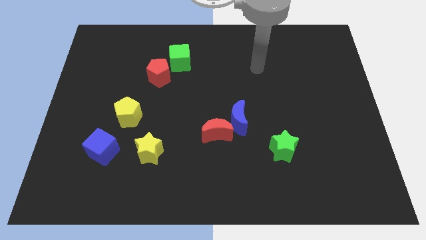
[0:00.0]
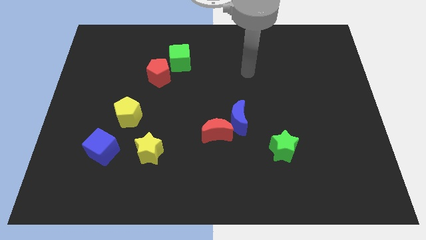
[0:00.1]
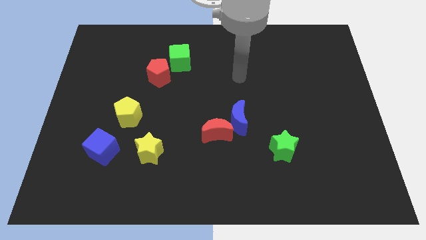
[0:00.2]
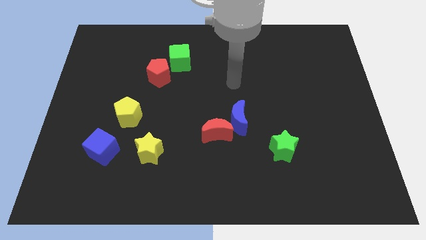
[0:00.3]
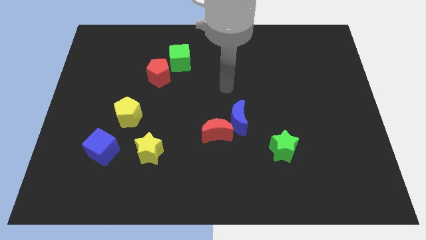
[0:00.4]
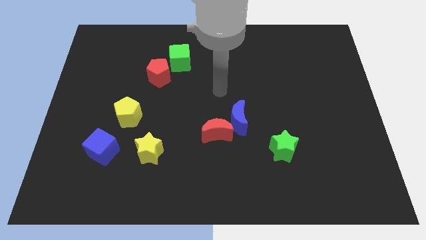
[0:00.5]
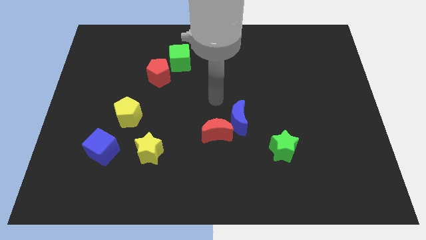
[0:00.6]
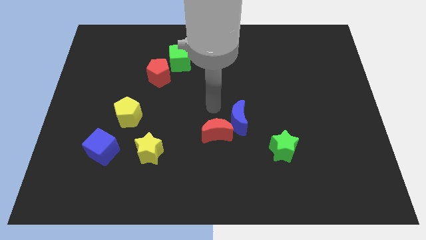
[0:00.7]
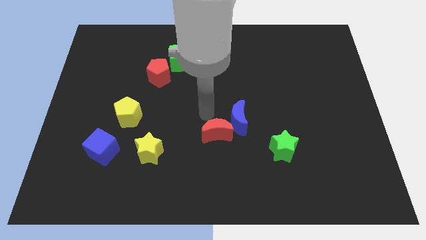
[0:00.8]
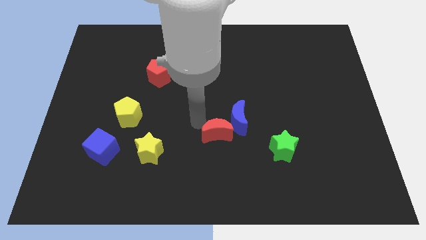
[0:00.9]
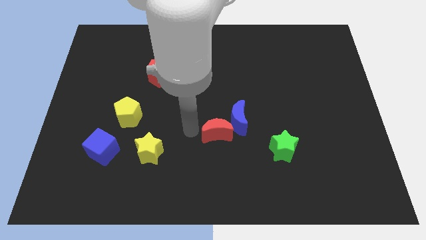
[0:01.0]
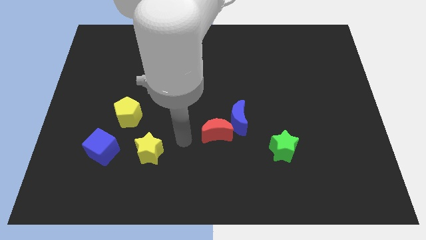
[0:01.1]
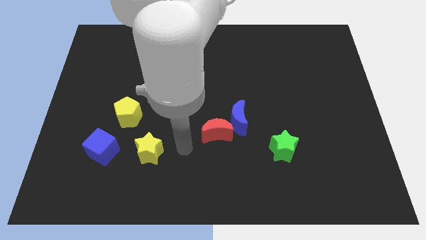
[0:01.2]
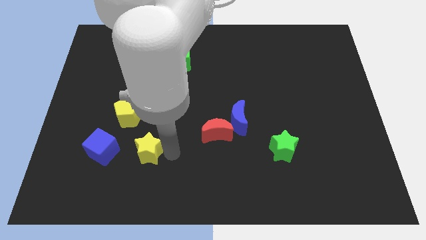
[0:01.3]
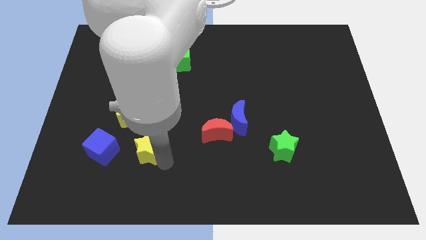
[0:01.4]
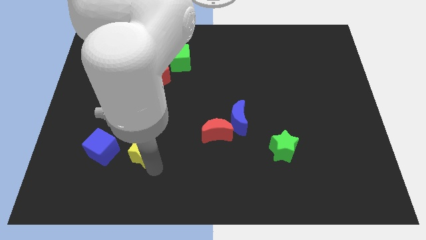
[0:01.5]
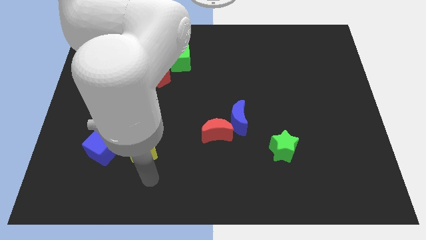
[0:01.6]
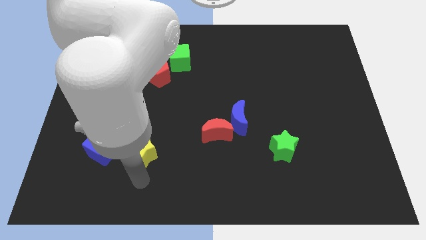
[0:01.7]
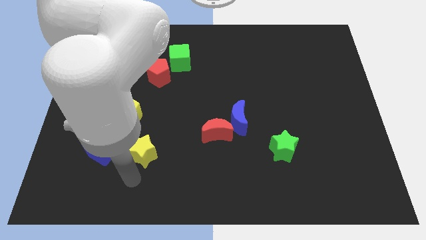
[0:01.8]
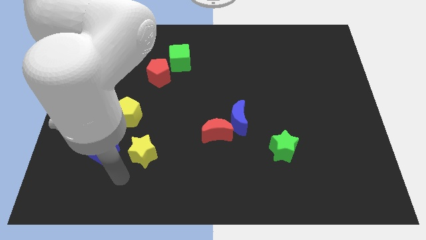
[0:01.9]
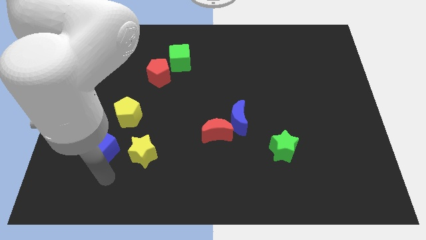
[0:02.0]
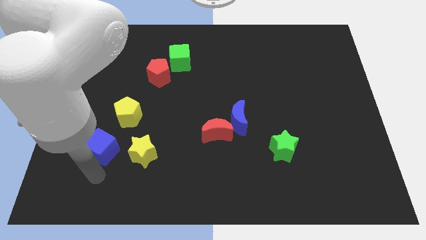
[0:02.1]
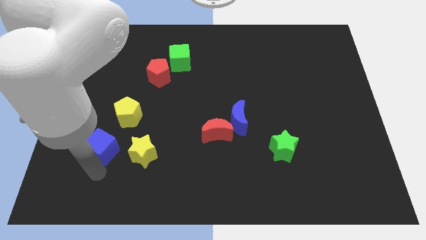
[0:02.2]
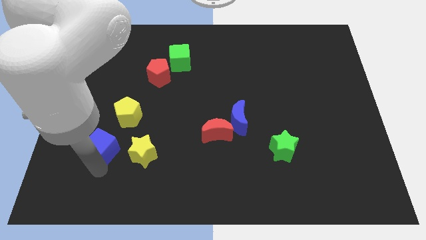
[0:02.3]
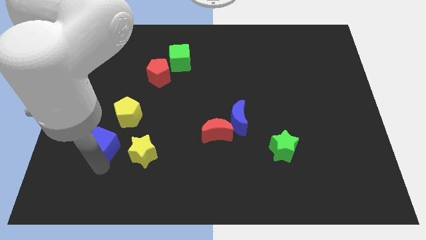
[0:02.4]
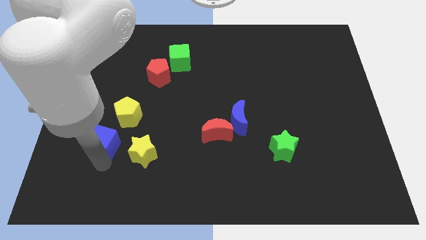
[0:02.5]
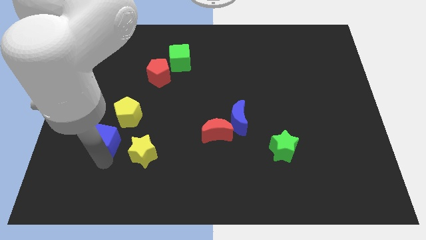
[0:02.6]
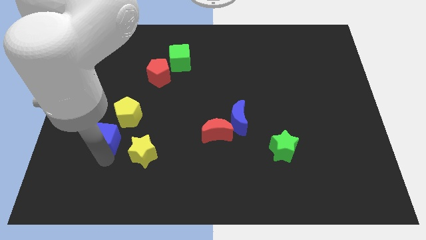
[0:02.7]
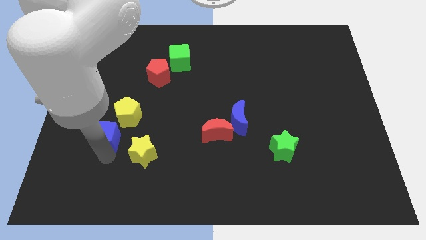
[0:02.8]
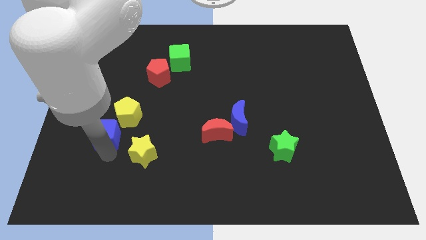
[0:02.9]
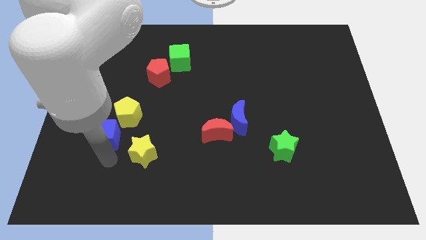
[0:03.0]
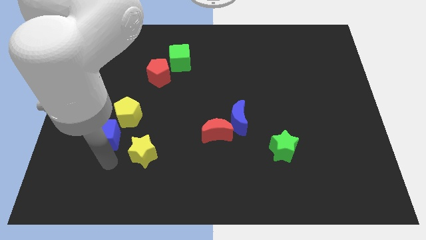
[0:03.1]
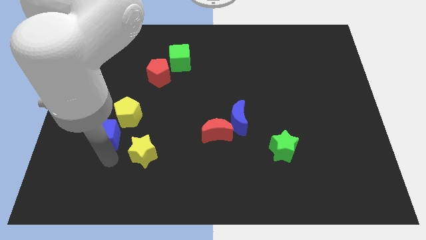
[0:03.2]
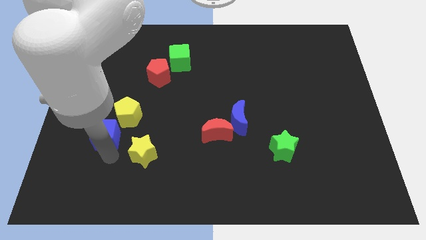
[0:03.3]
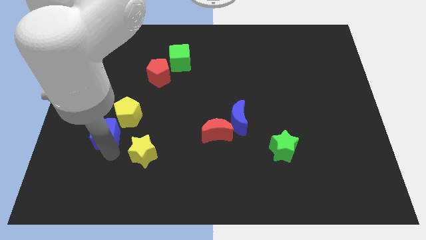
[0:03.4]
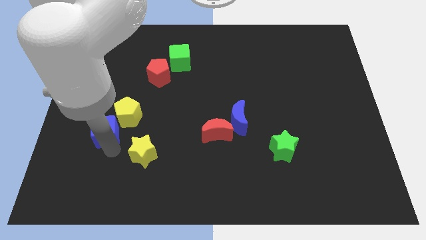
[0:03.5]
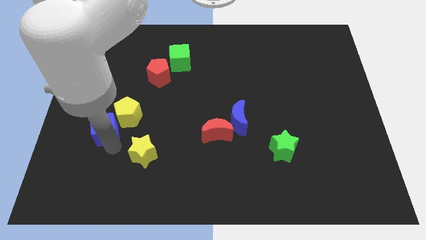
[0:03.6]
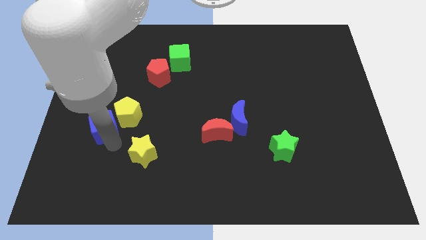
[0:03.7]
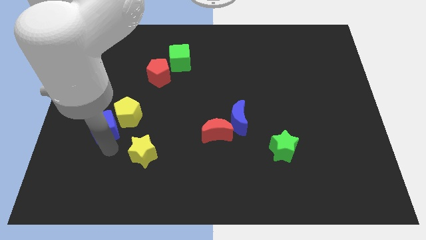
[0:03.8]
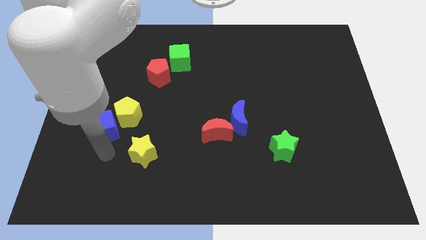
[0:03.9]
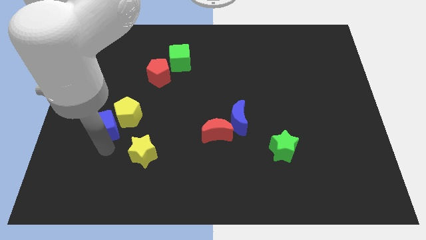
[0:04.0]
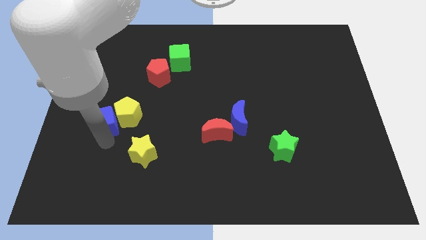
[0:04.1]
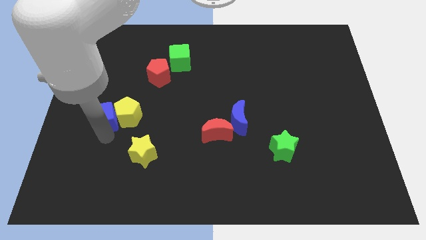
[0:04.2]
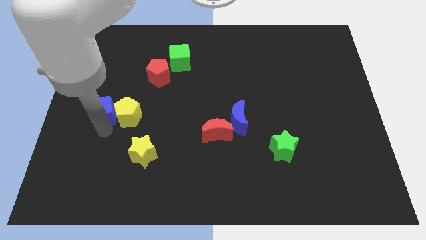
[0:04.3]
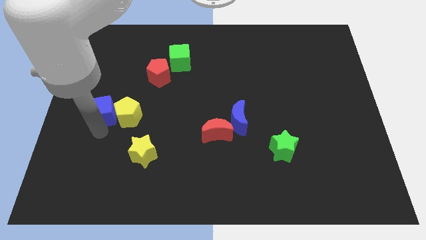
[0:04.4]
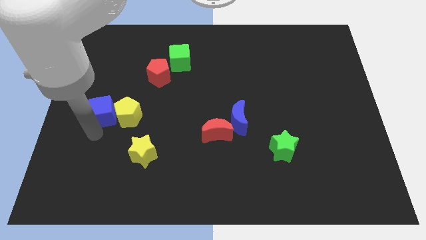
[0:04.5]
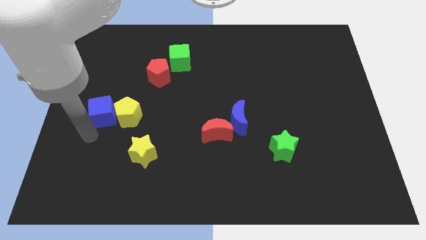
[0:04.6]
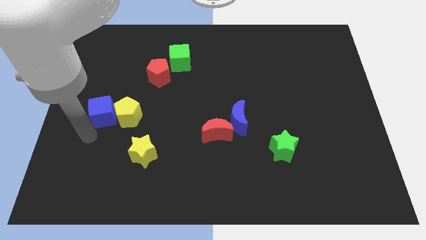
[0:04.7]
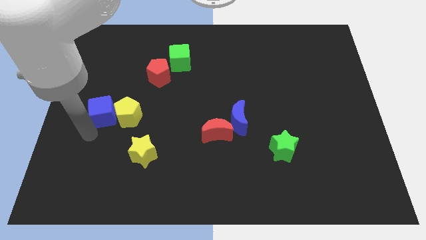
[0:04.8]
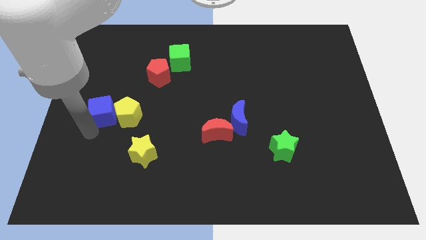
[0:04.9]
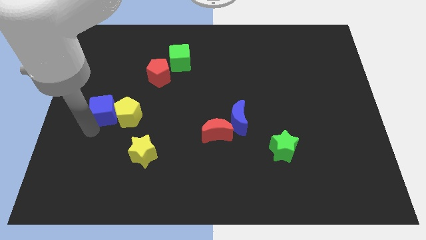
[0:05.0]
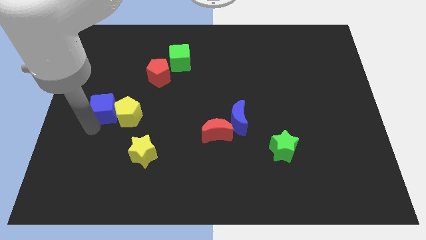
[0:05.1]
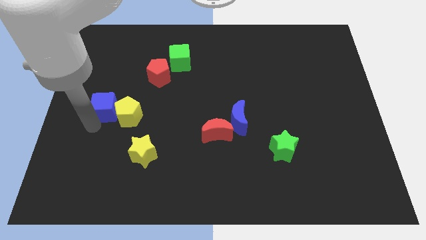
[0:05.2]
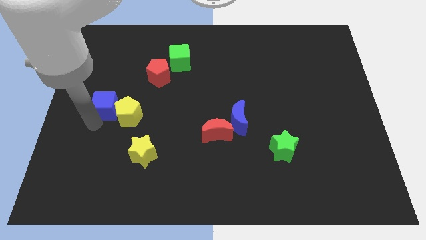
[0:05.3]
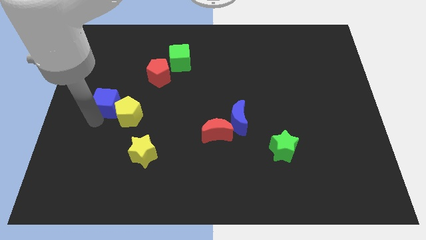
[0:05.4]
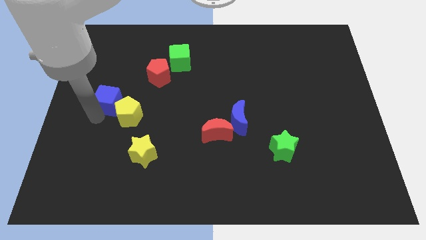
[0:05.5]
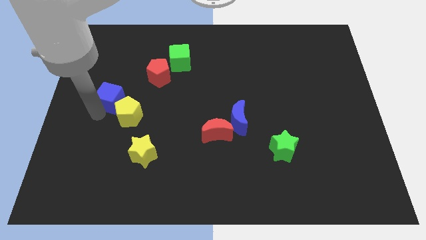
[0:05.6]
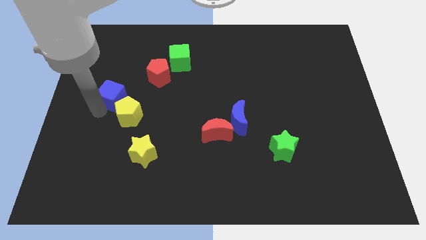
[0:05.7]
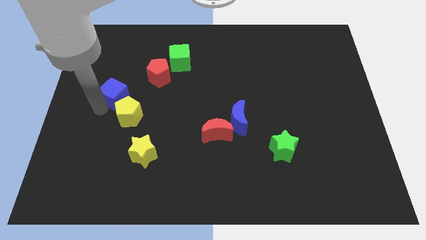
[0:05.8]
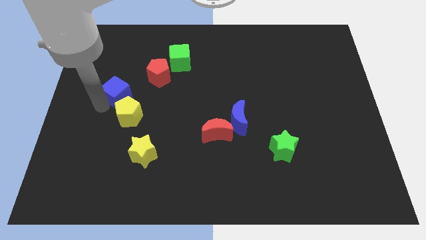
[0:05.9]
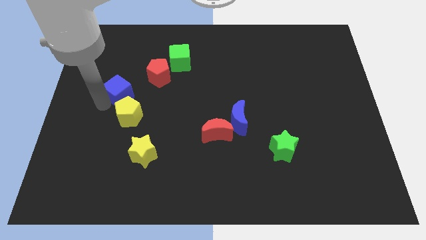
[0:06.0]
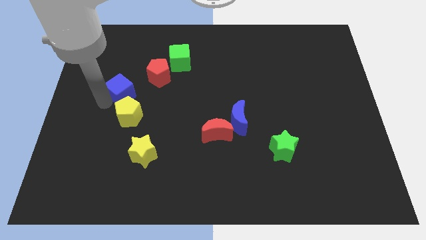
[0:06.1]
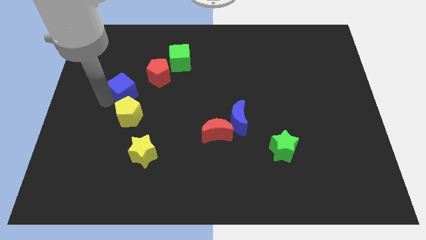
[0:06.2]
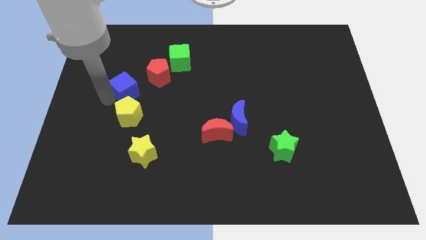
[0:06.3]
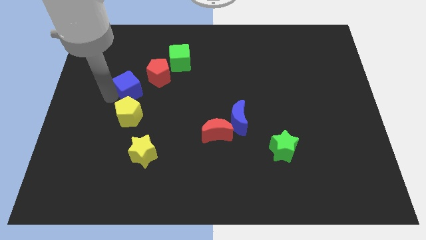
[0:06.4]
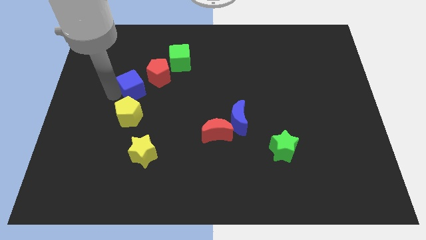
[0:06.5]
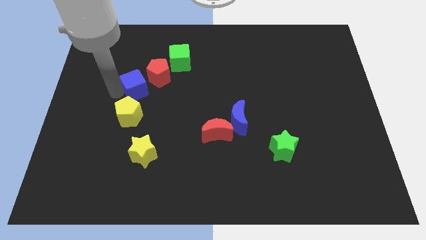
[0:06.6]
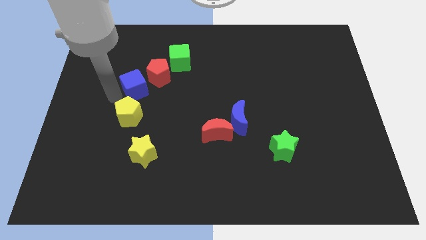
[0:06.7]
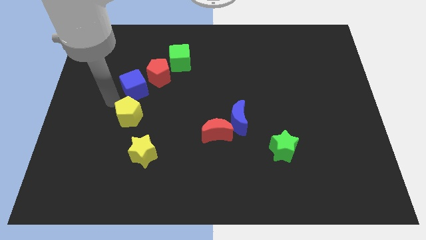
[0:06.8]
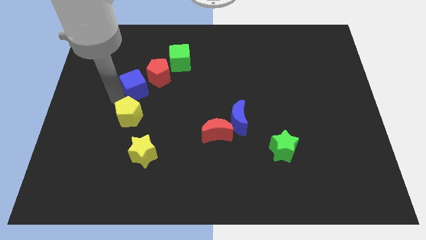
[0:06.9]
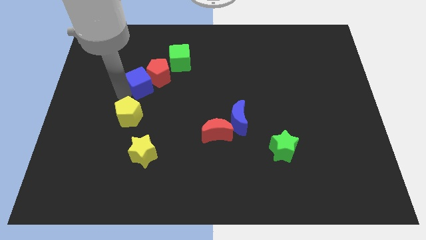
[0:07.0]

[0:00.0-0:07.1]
put the blue cube towards the red pentagon
